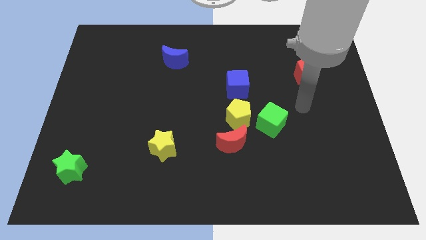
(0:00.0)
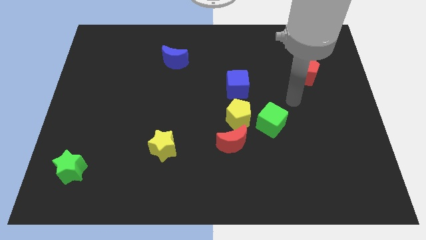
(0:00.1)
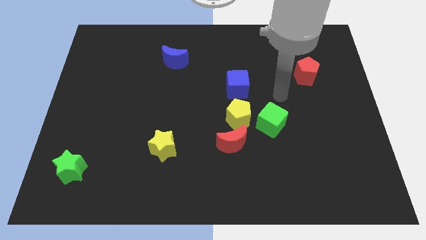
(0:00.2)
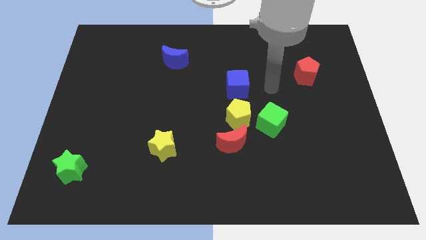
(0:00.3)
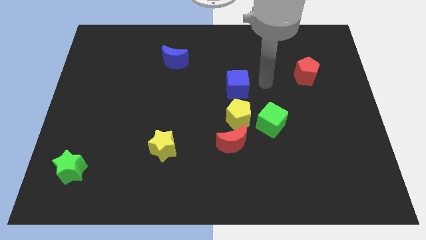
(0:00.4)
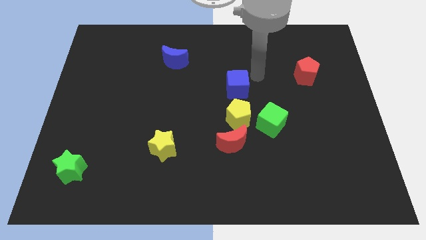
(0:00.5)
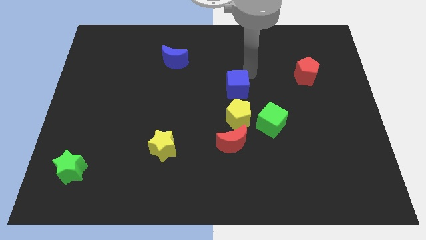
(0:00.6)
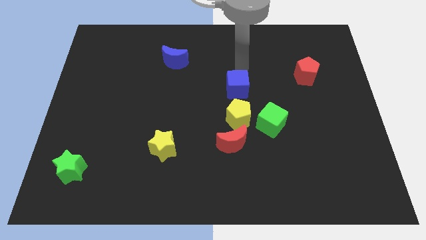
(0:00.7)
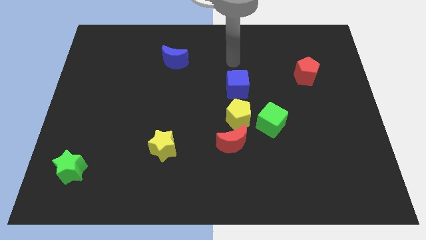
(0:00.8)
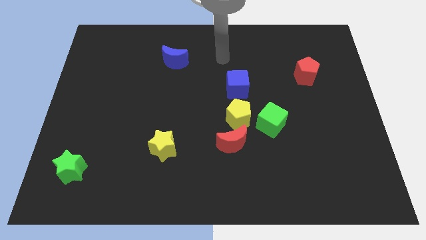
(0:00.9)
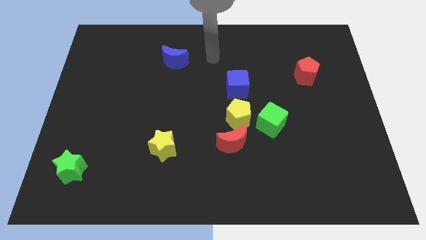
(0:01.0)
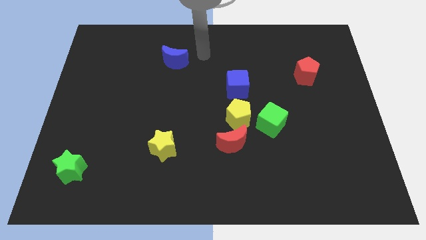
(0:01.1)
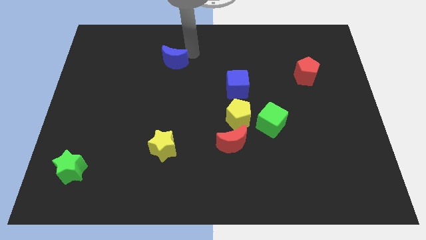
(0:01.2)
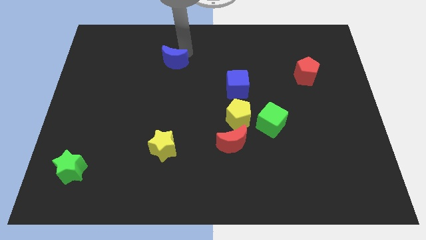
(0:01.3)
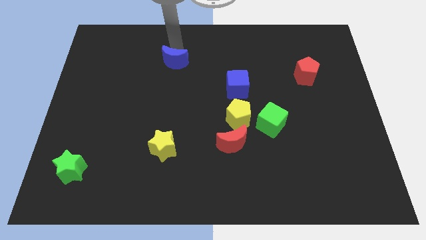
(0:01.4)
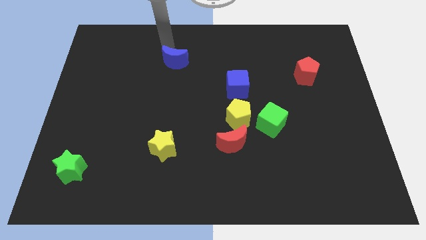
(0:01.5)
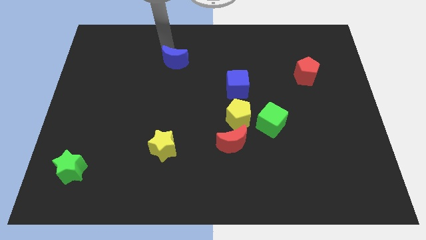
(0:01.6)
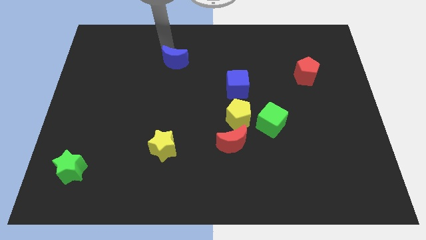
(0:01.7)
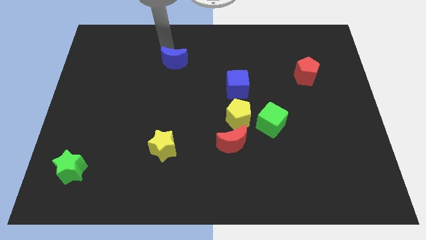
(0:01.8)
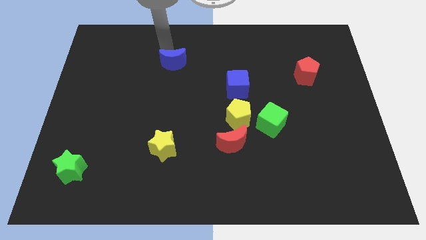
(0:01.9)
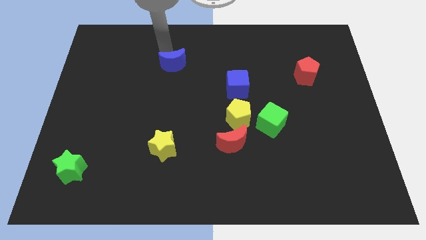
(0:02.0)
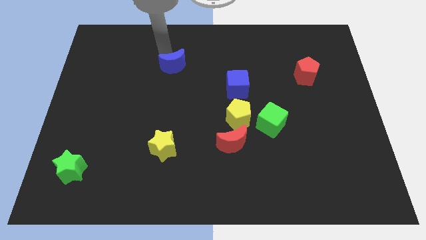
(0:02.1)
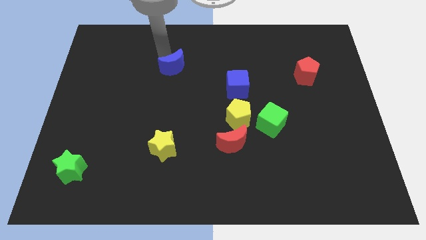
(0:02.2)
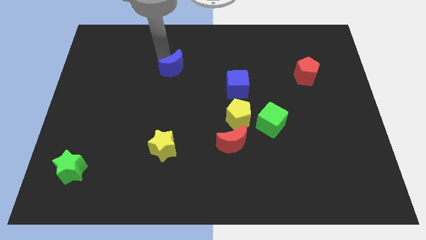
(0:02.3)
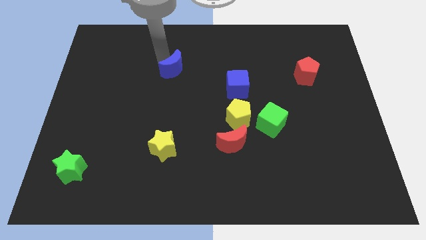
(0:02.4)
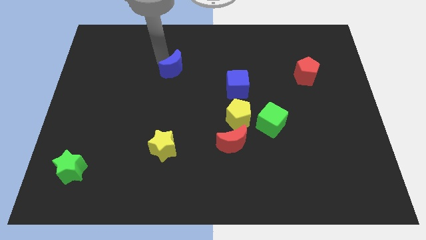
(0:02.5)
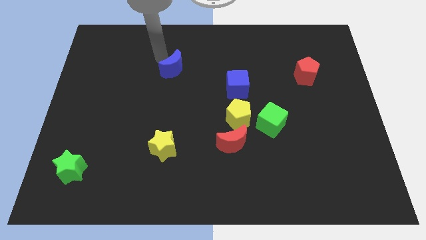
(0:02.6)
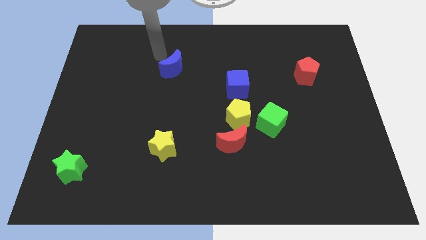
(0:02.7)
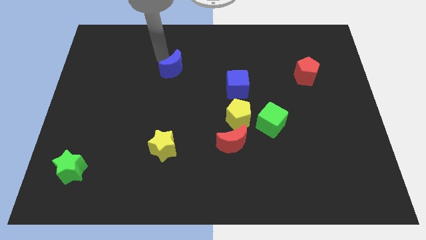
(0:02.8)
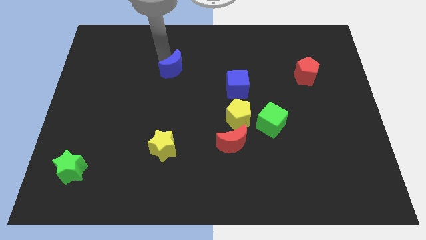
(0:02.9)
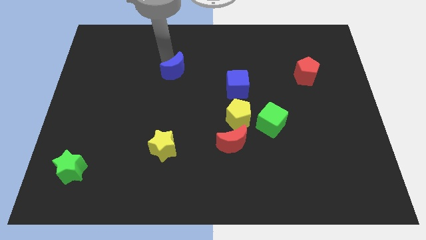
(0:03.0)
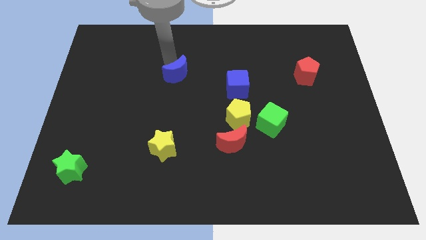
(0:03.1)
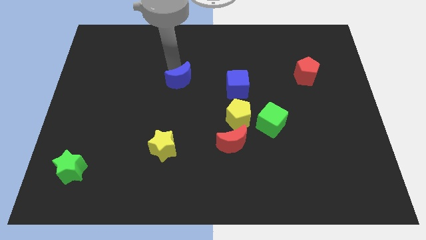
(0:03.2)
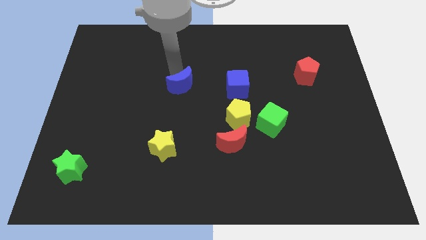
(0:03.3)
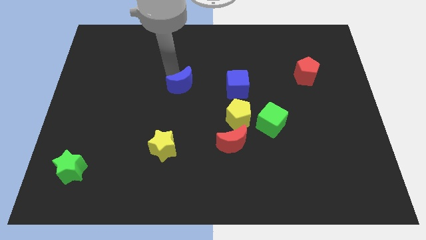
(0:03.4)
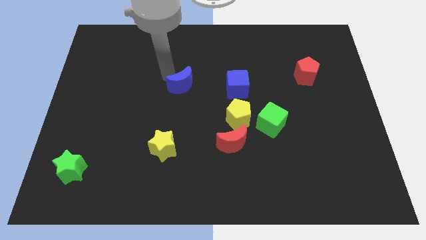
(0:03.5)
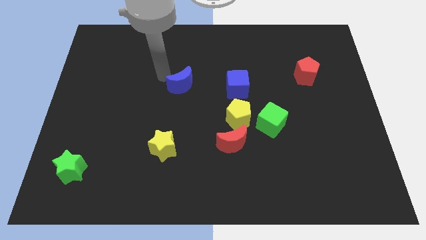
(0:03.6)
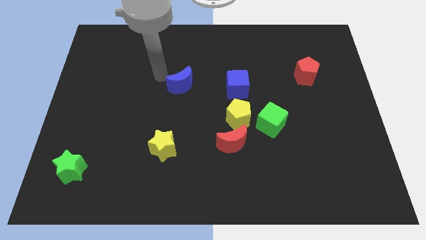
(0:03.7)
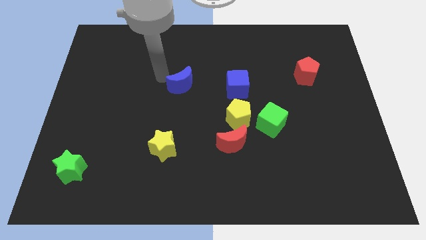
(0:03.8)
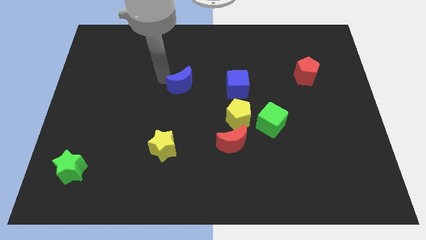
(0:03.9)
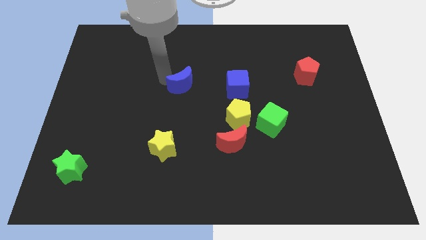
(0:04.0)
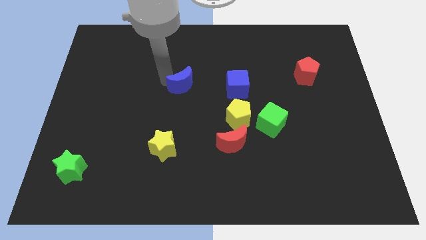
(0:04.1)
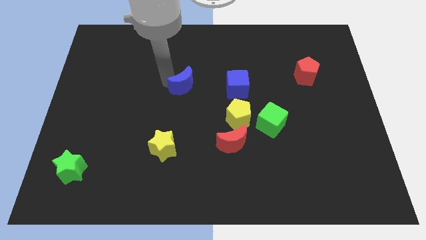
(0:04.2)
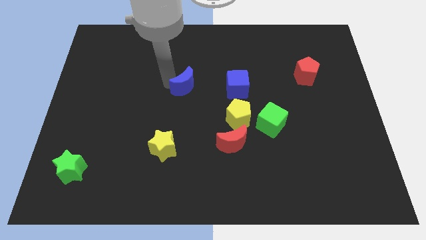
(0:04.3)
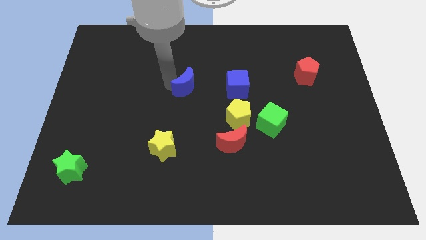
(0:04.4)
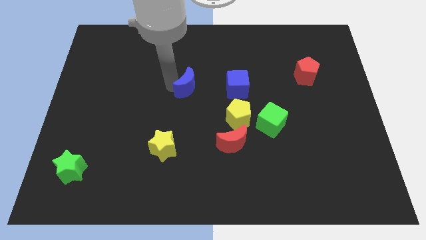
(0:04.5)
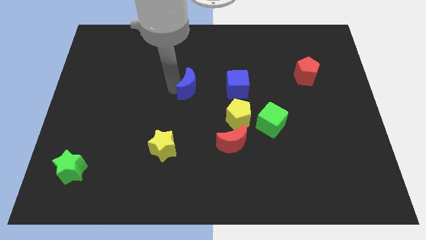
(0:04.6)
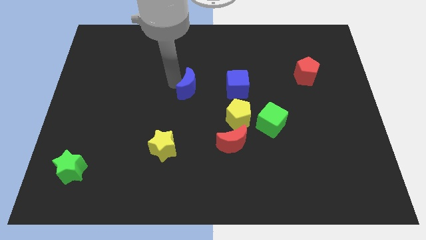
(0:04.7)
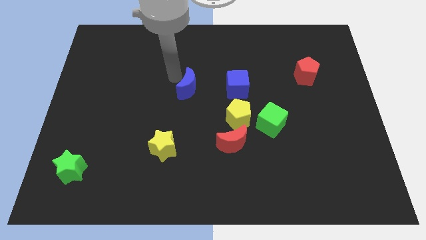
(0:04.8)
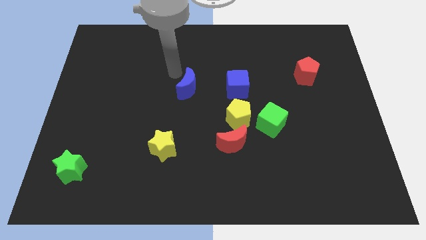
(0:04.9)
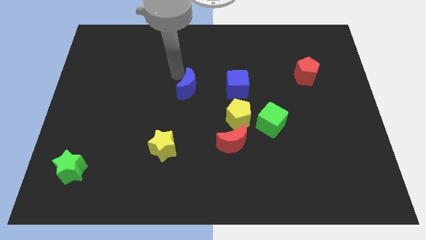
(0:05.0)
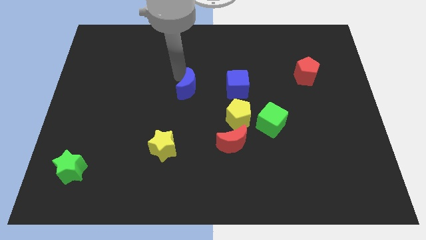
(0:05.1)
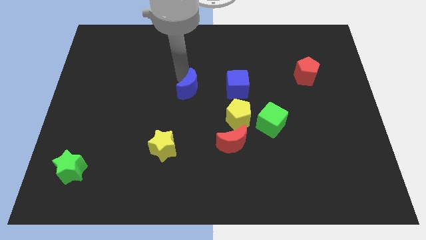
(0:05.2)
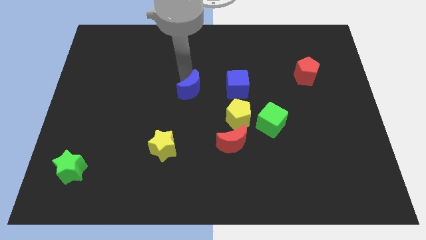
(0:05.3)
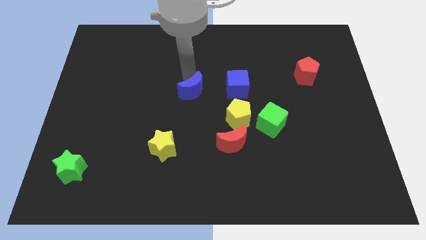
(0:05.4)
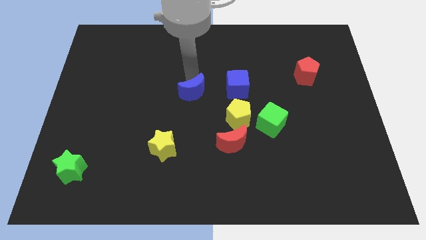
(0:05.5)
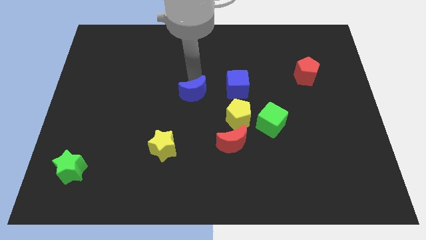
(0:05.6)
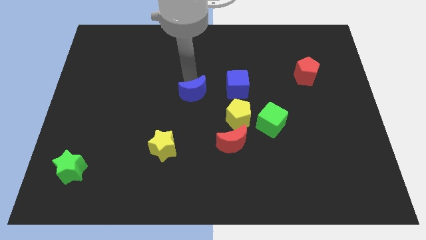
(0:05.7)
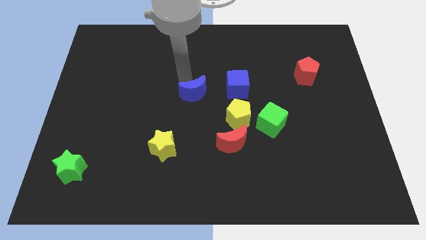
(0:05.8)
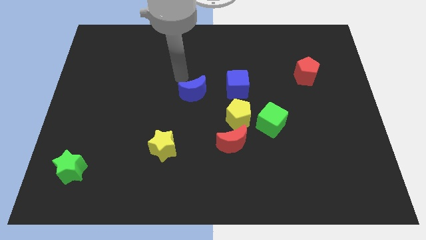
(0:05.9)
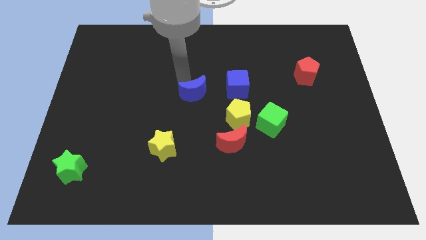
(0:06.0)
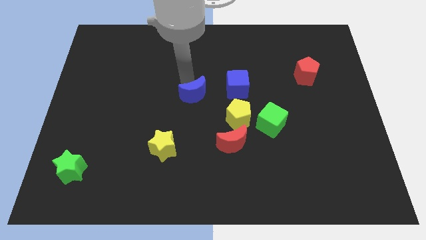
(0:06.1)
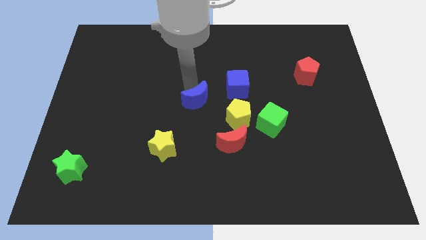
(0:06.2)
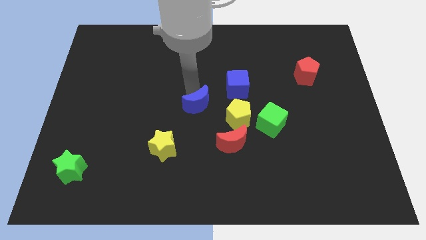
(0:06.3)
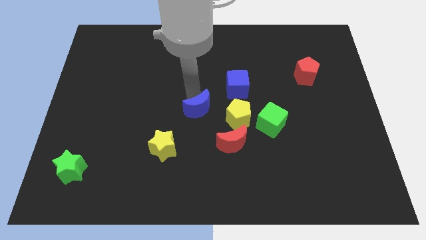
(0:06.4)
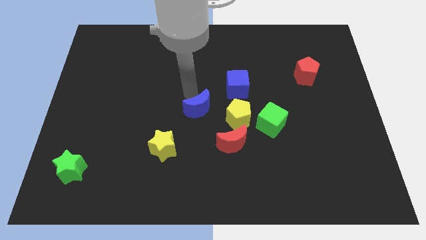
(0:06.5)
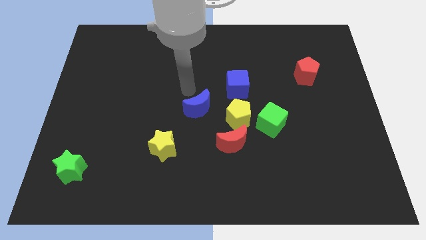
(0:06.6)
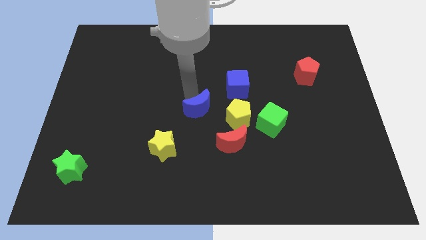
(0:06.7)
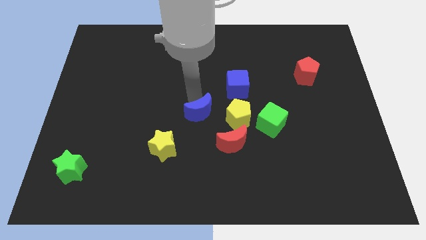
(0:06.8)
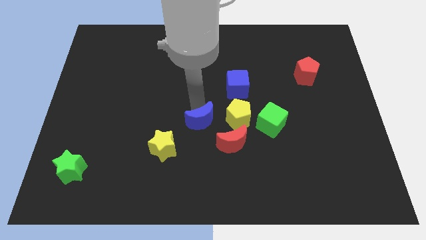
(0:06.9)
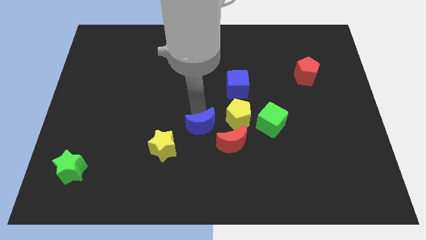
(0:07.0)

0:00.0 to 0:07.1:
slide the blue moon to the bottom left of the yellow pentagon
